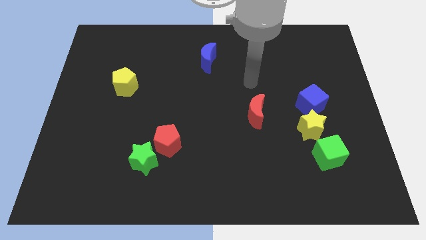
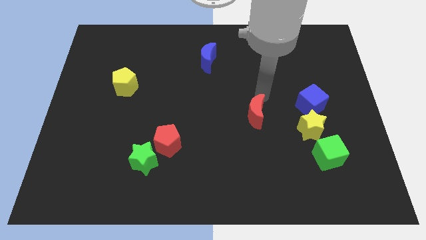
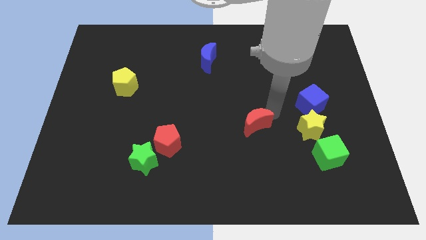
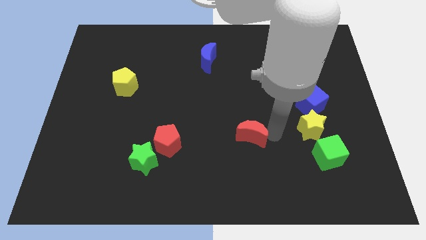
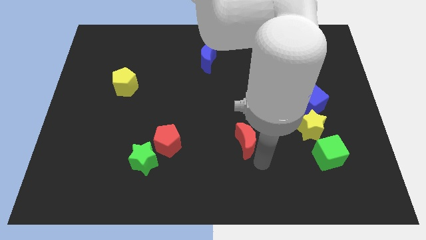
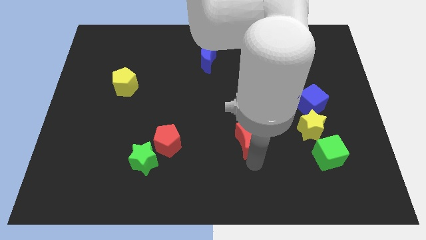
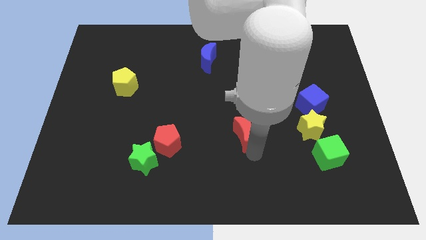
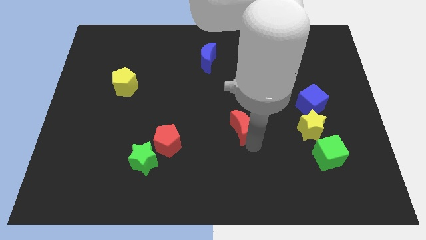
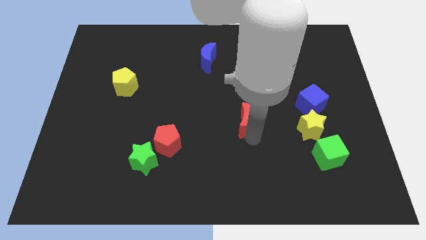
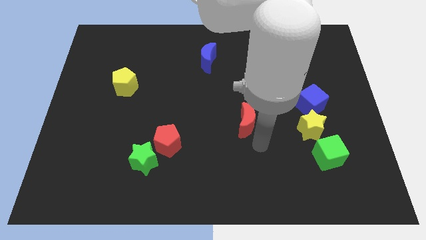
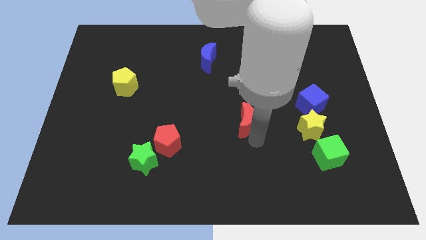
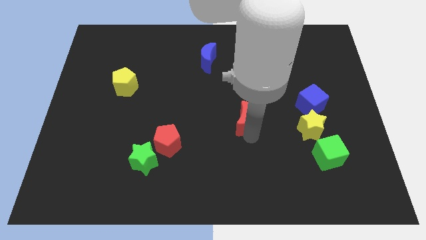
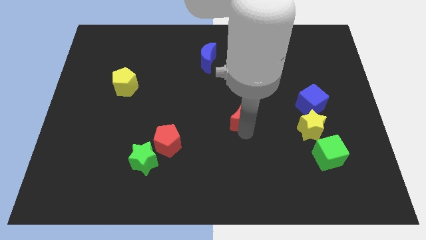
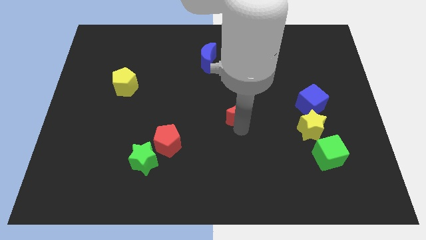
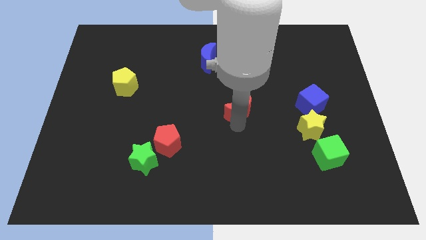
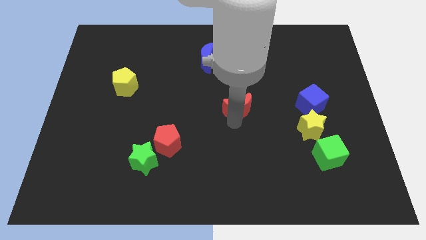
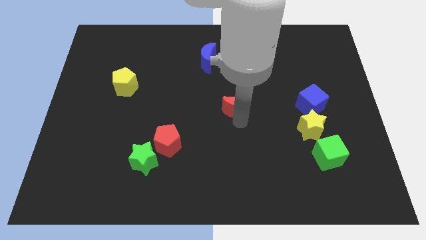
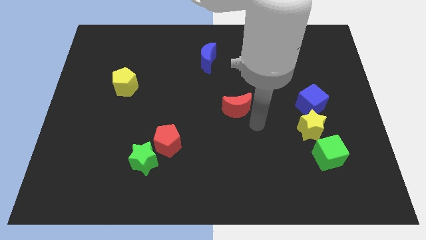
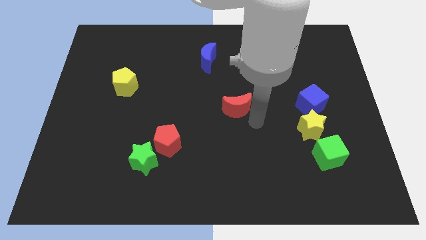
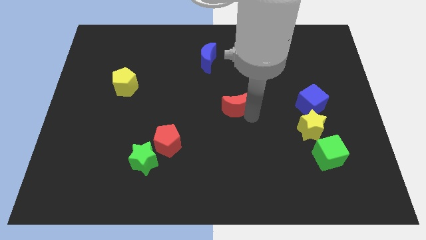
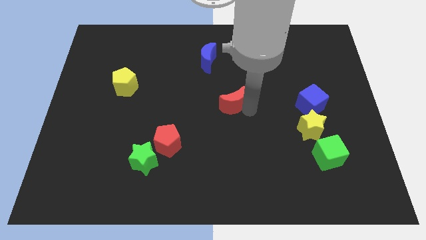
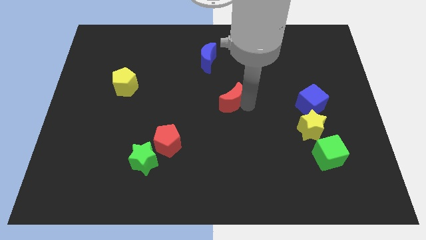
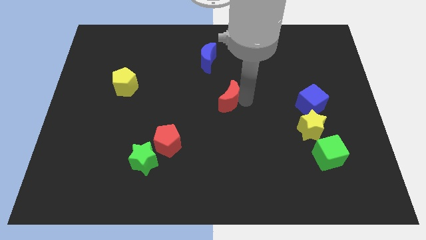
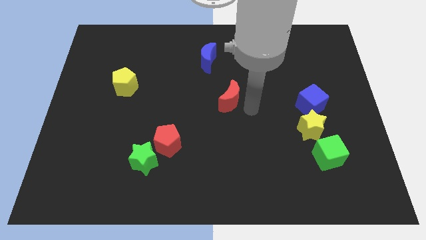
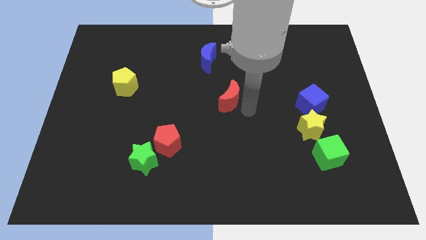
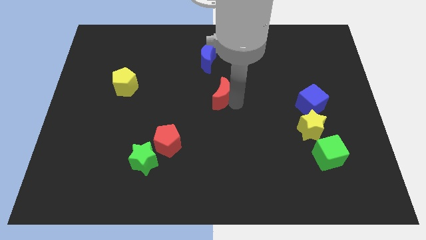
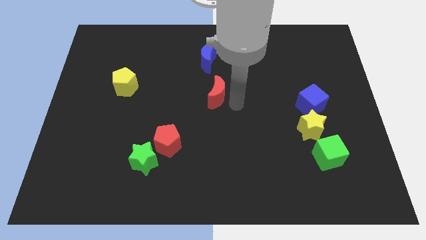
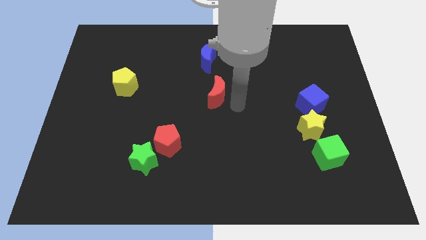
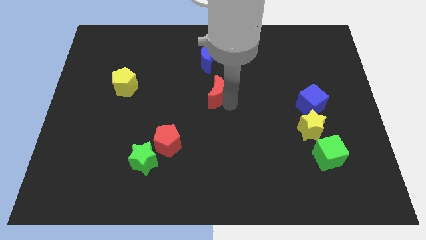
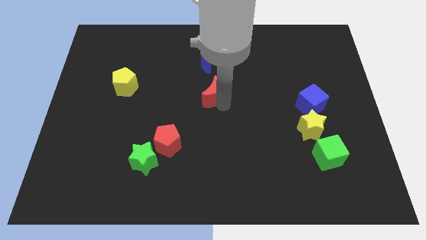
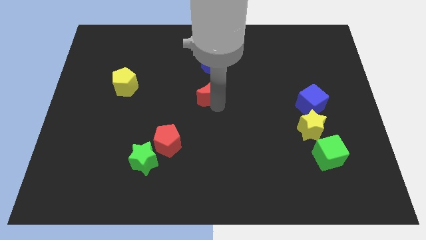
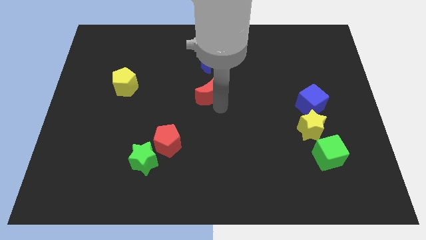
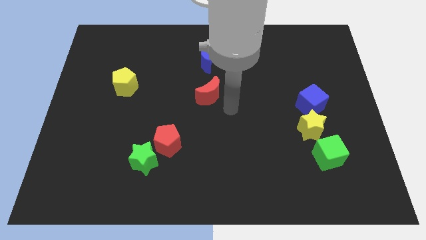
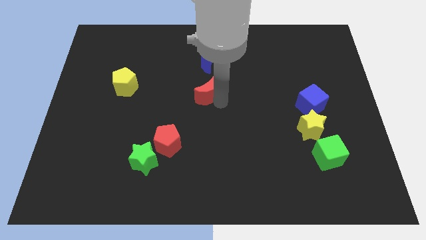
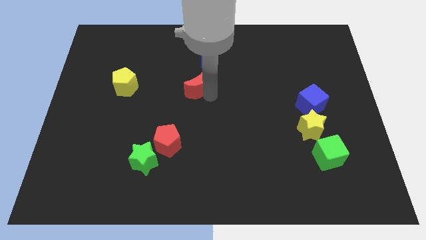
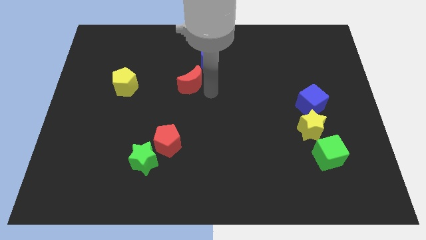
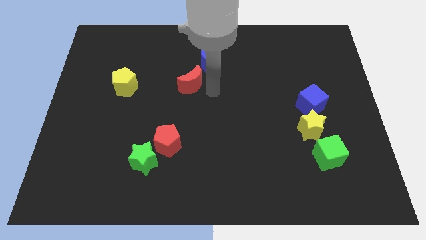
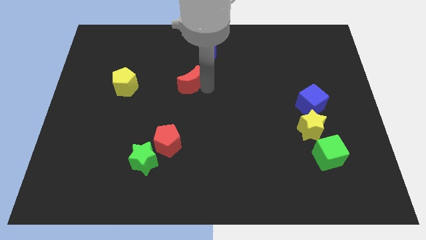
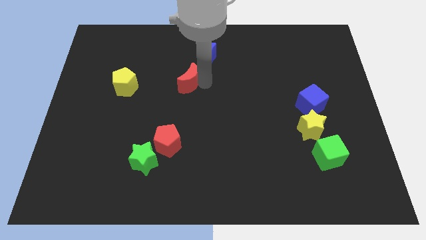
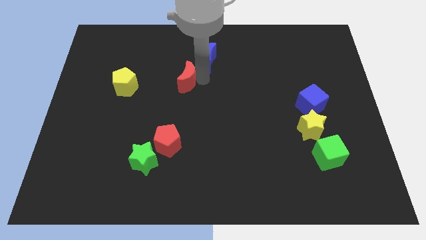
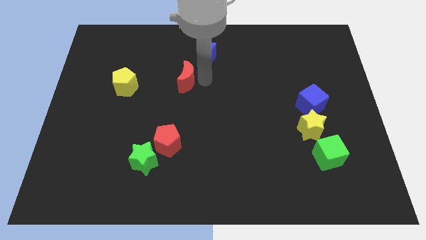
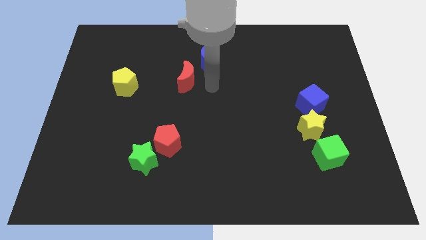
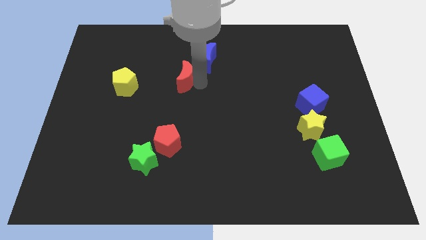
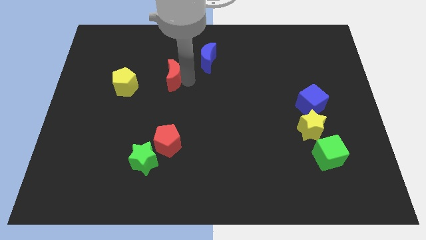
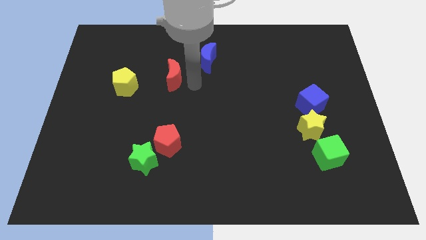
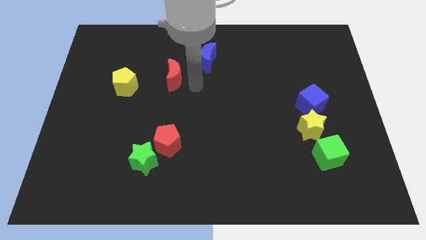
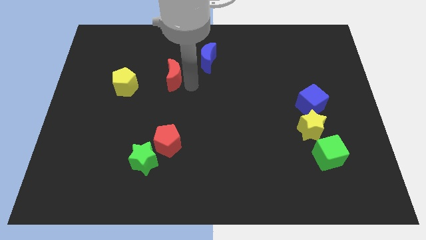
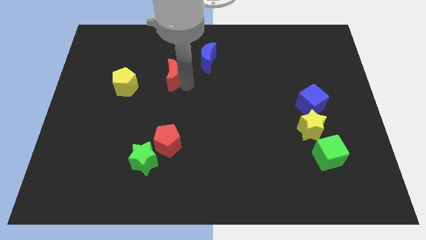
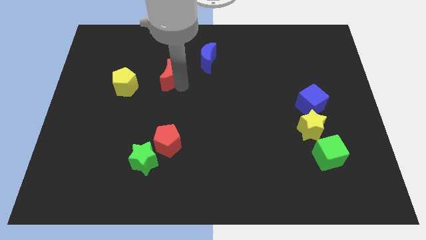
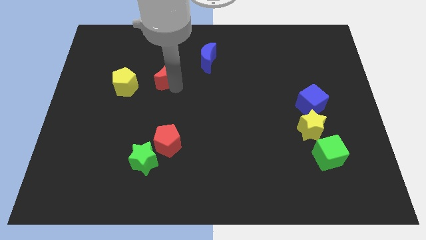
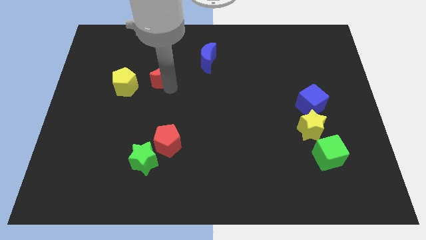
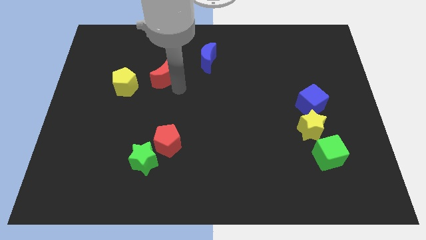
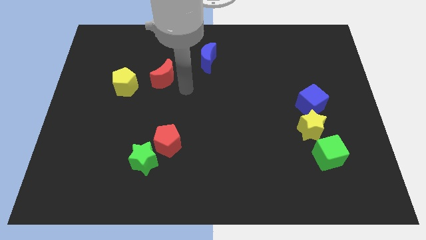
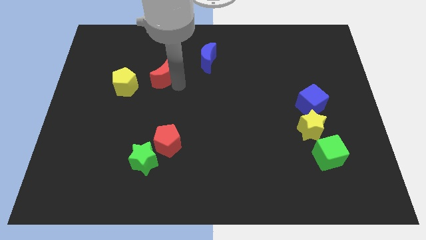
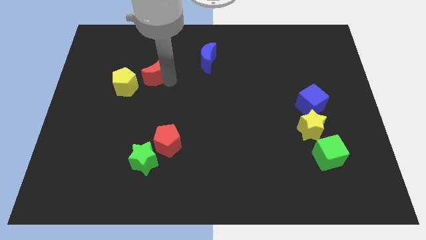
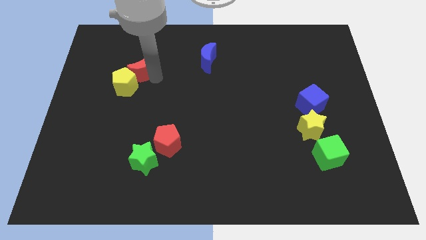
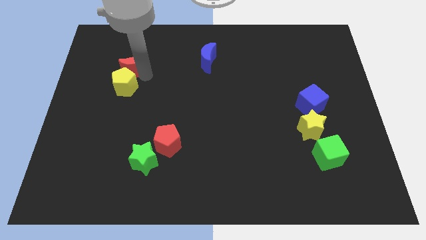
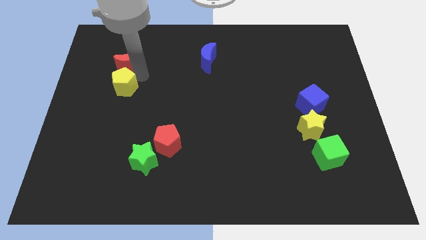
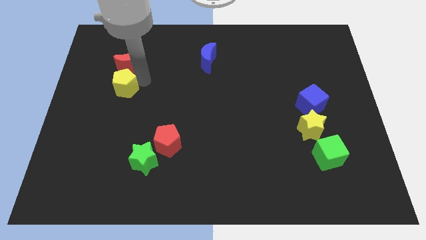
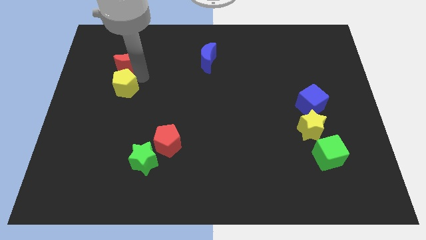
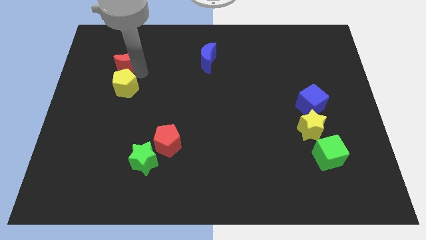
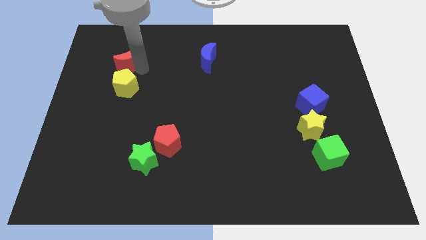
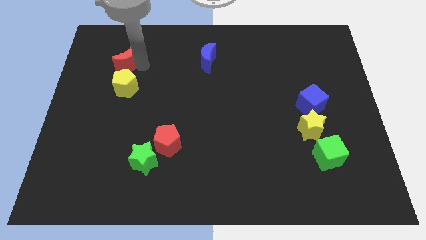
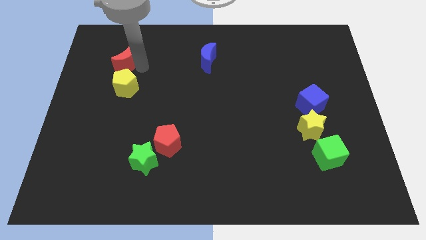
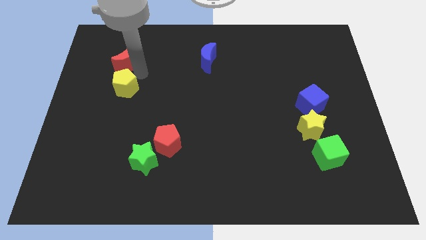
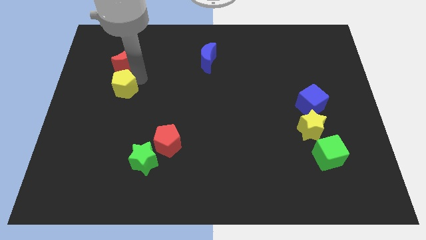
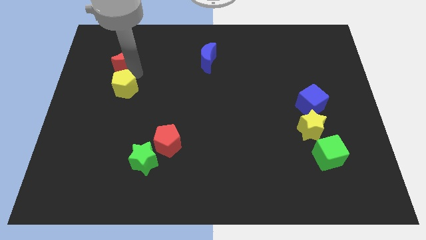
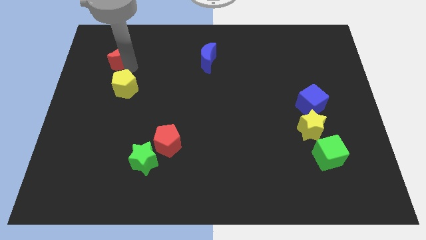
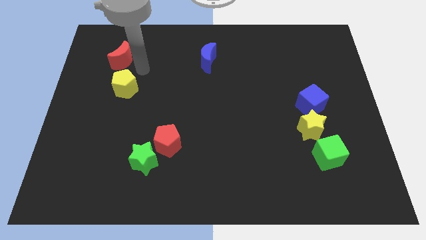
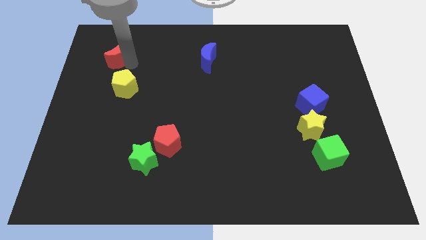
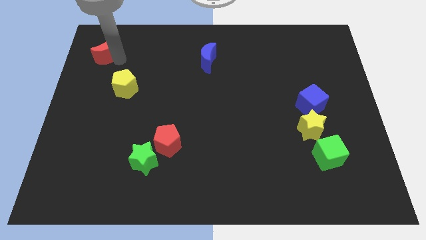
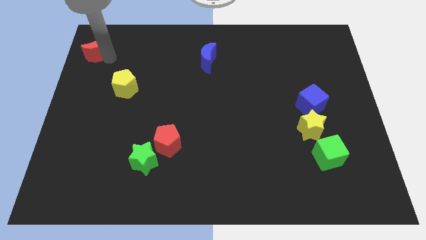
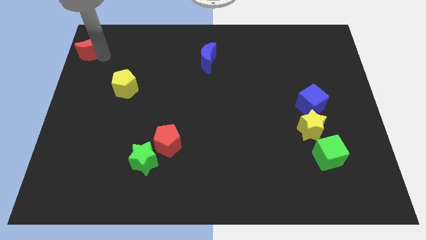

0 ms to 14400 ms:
push the red moon to the top left
